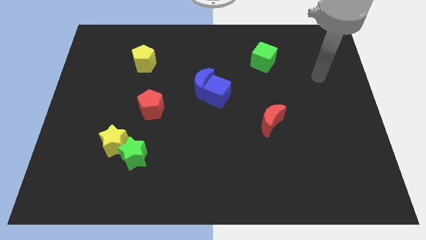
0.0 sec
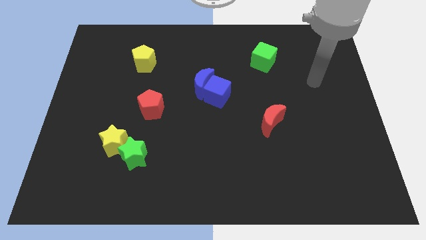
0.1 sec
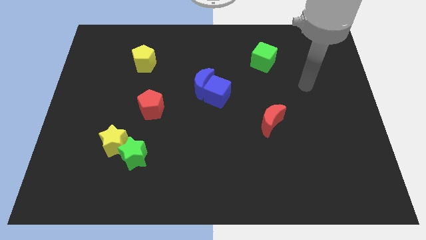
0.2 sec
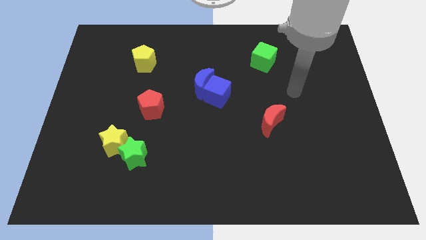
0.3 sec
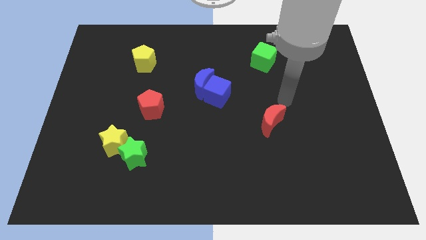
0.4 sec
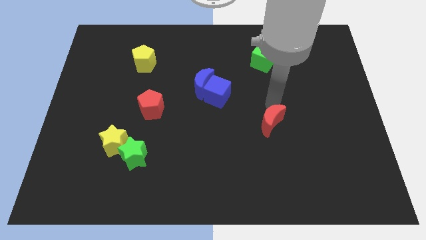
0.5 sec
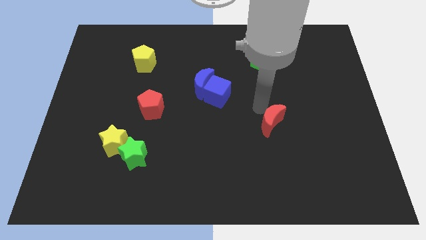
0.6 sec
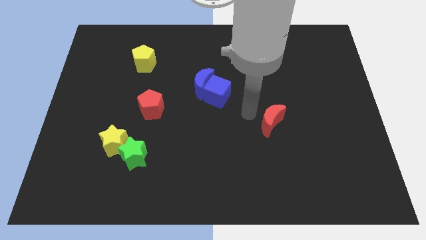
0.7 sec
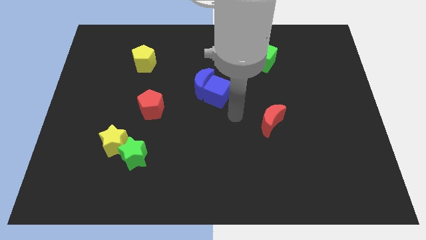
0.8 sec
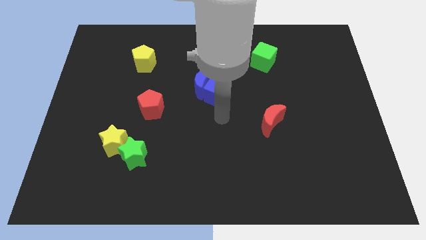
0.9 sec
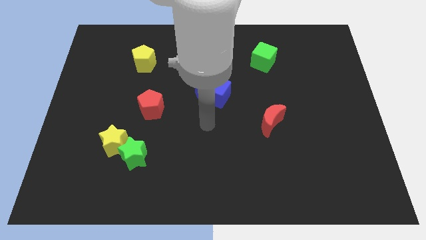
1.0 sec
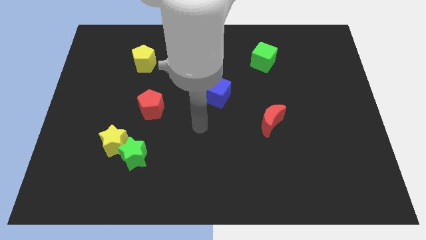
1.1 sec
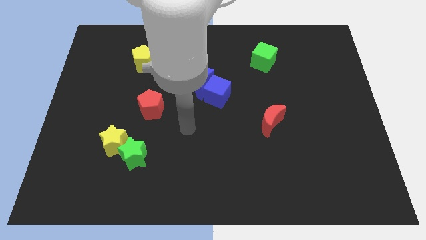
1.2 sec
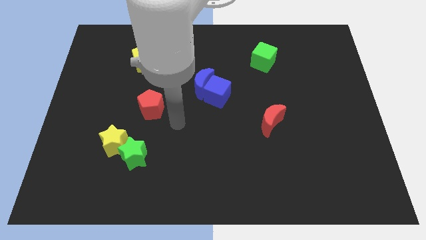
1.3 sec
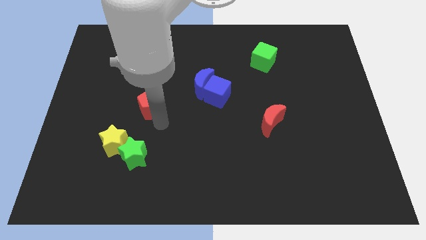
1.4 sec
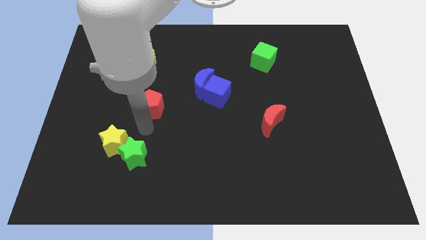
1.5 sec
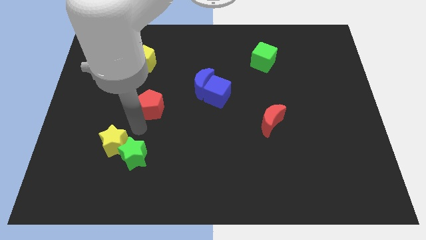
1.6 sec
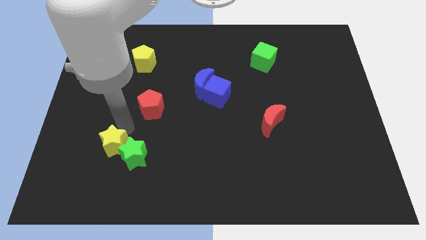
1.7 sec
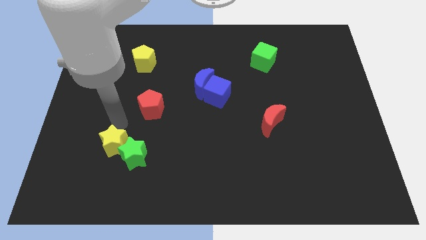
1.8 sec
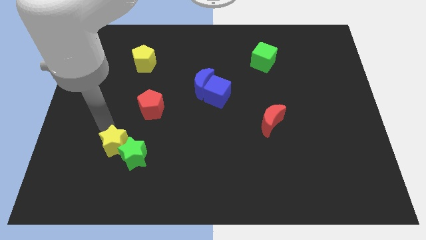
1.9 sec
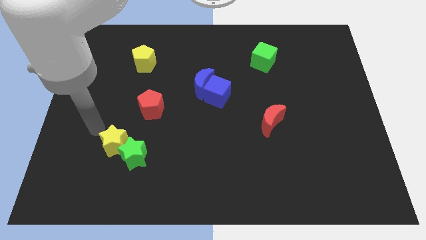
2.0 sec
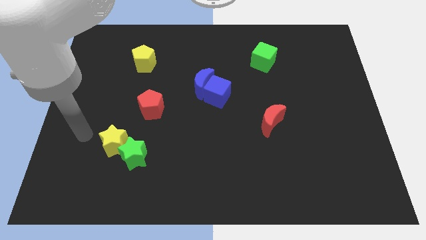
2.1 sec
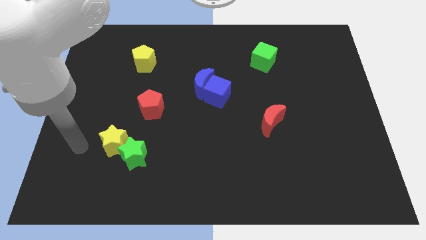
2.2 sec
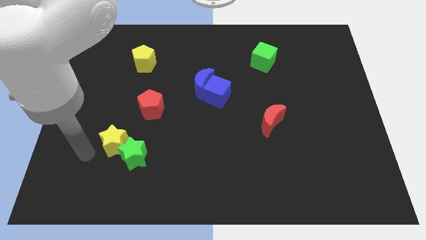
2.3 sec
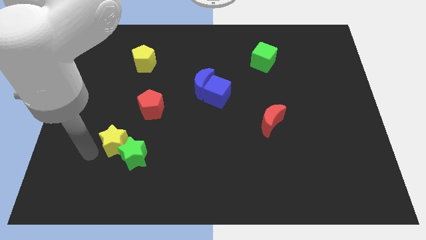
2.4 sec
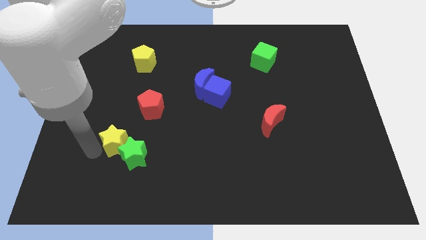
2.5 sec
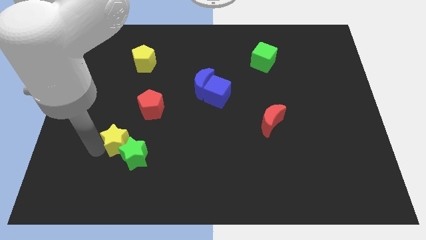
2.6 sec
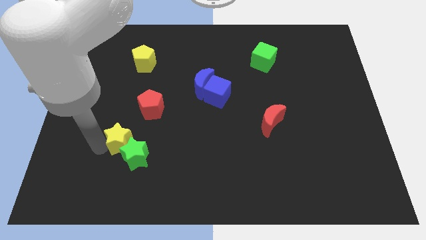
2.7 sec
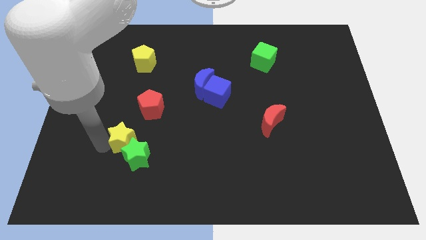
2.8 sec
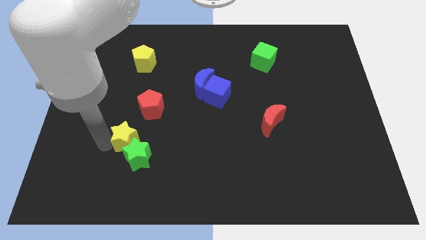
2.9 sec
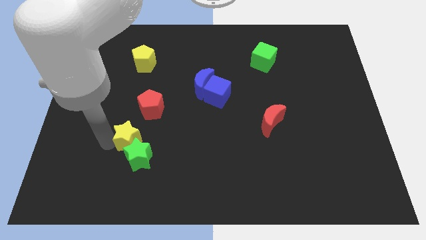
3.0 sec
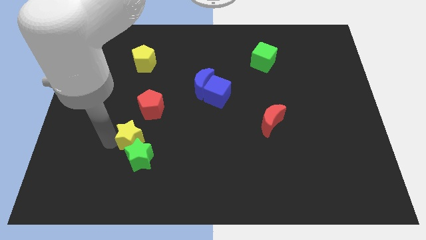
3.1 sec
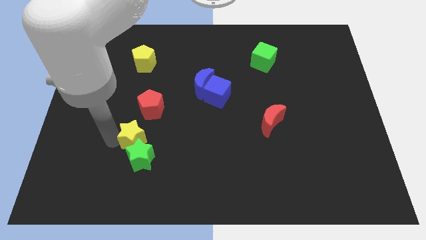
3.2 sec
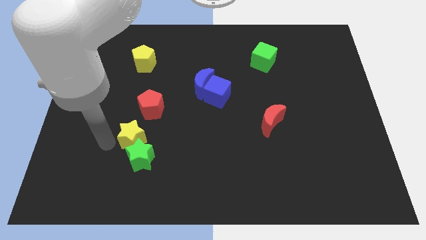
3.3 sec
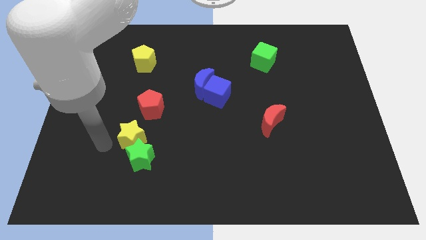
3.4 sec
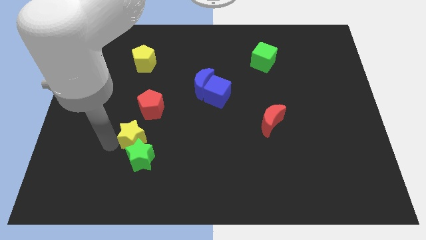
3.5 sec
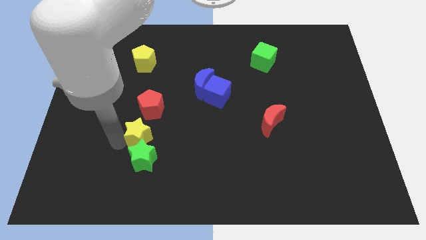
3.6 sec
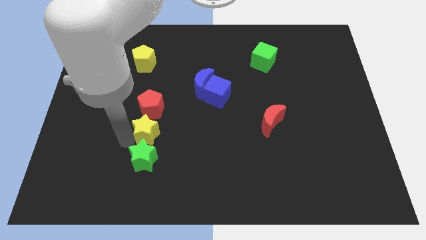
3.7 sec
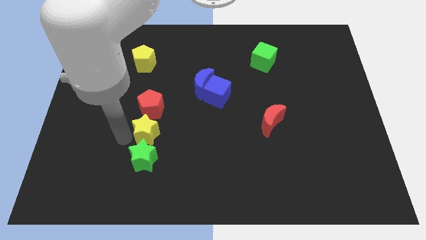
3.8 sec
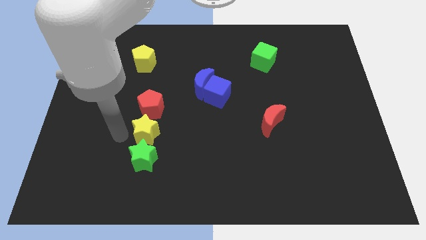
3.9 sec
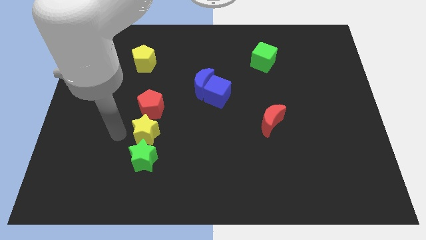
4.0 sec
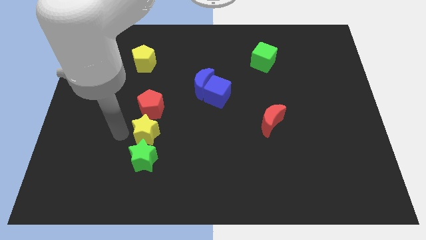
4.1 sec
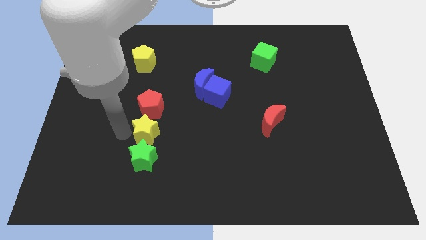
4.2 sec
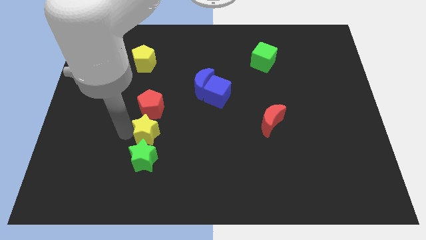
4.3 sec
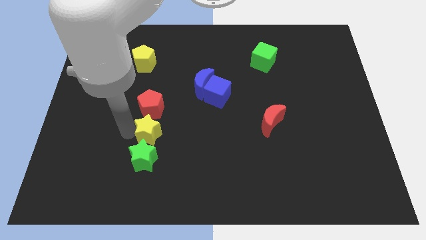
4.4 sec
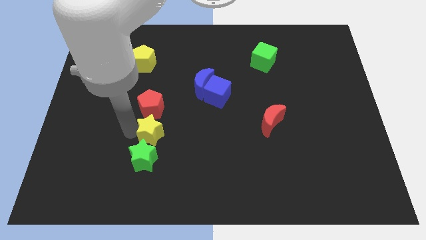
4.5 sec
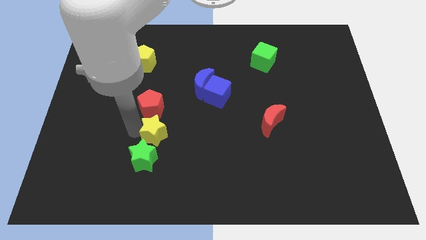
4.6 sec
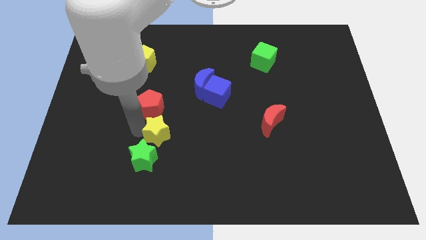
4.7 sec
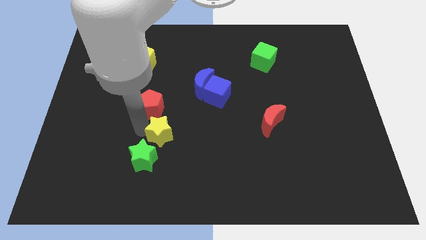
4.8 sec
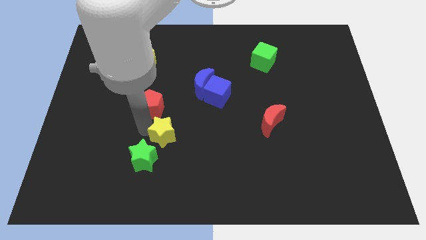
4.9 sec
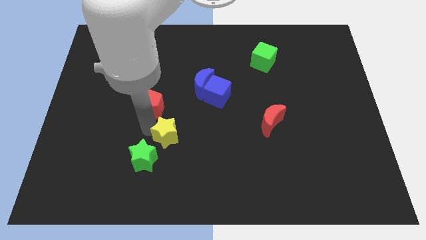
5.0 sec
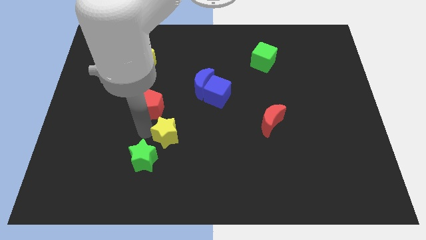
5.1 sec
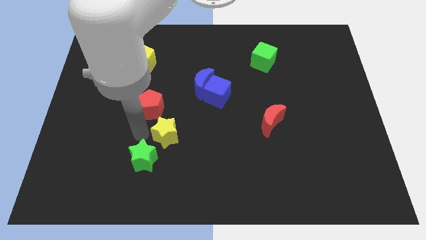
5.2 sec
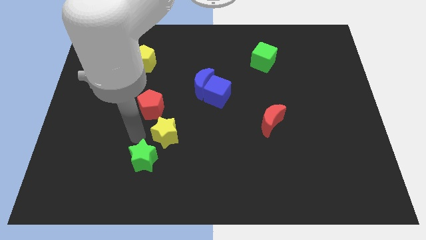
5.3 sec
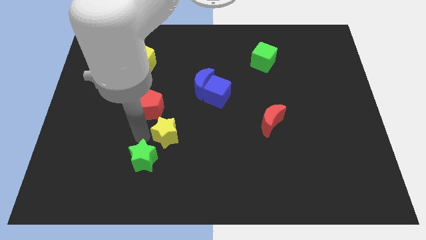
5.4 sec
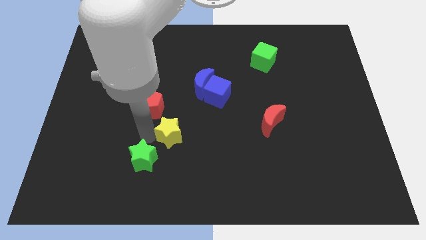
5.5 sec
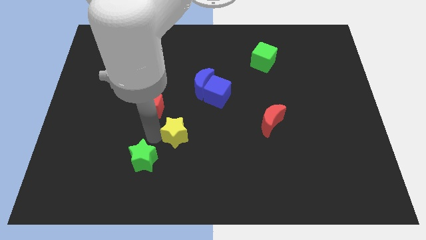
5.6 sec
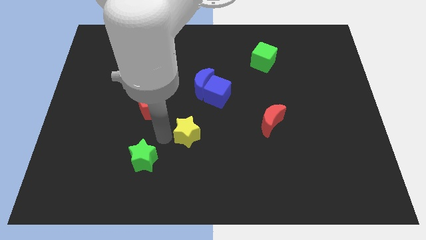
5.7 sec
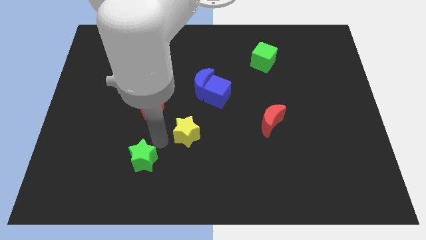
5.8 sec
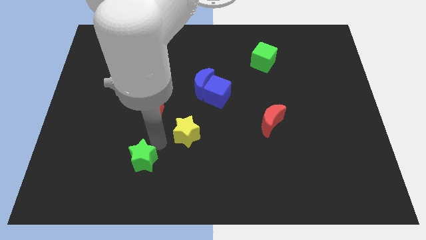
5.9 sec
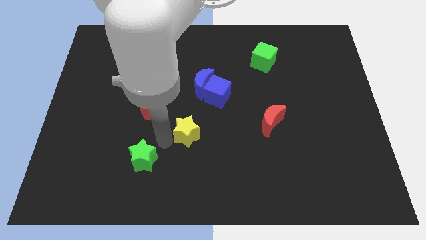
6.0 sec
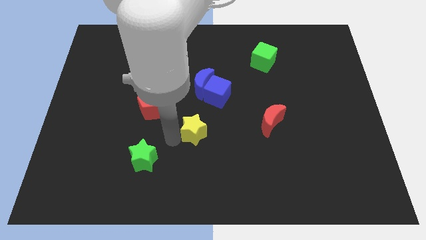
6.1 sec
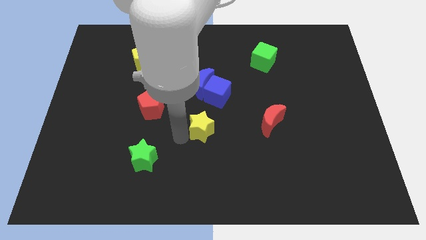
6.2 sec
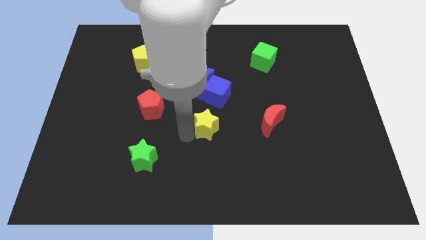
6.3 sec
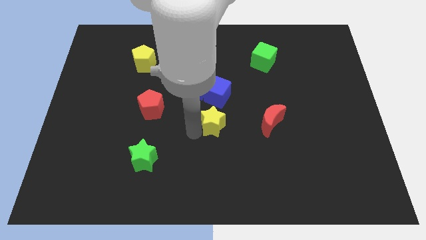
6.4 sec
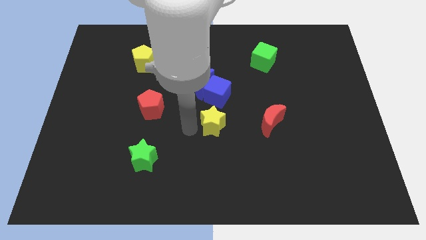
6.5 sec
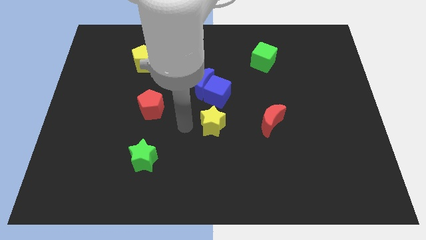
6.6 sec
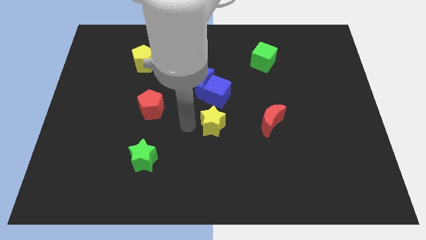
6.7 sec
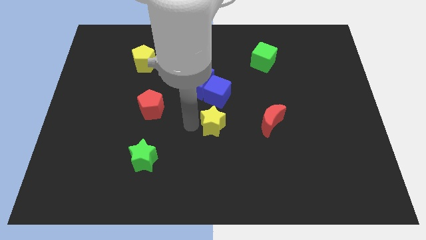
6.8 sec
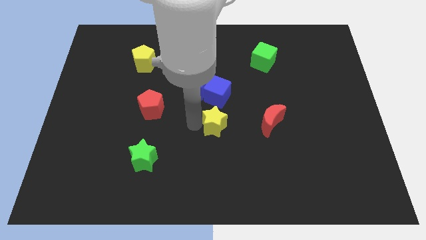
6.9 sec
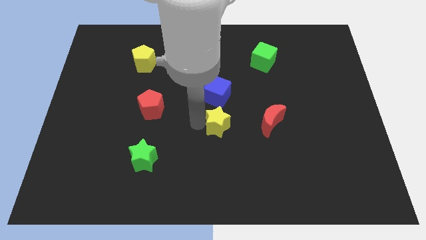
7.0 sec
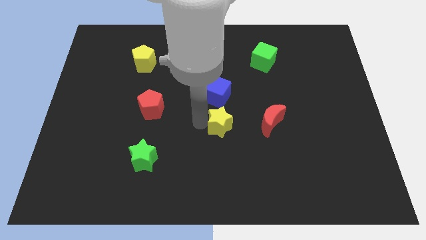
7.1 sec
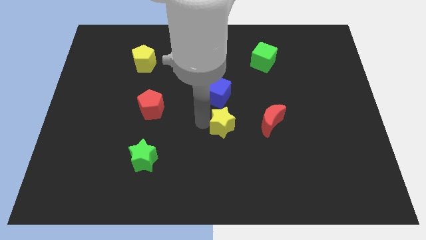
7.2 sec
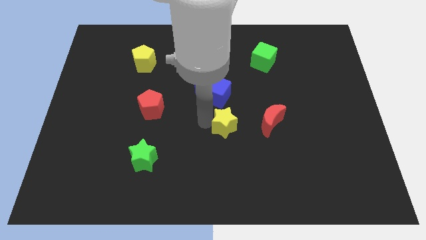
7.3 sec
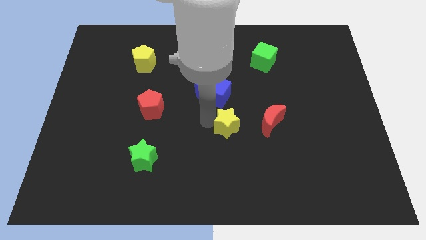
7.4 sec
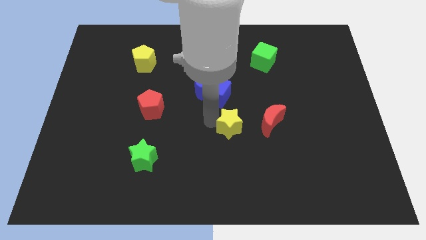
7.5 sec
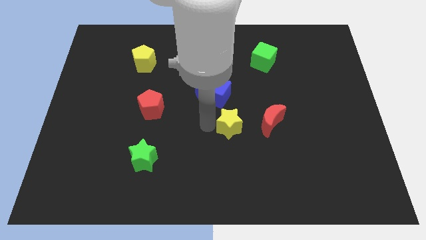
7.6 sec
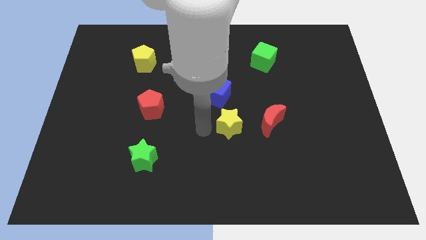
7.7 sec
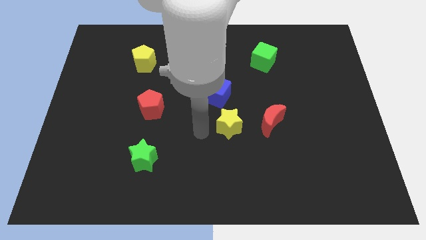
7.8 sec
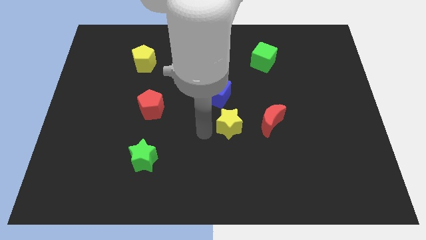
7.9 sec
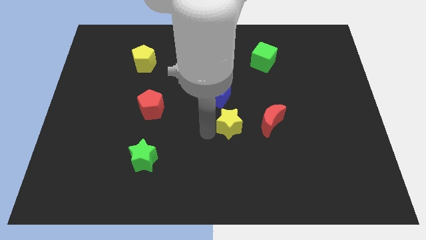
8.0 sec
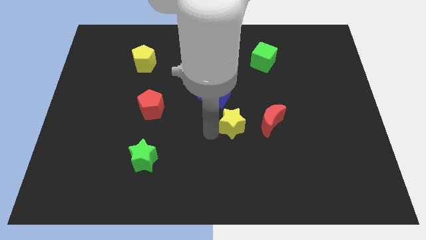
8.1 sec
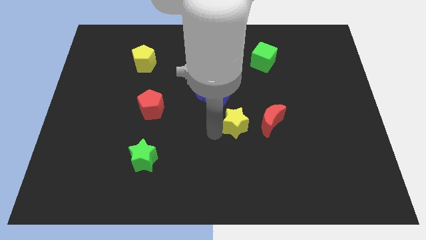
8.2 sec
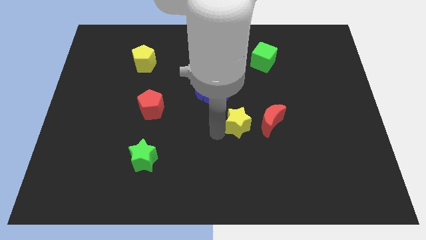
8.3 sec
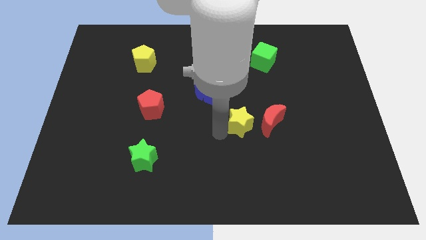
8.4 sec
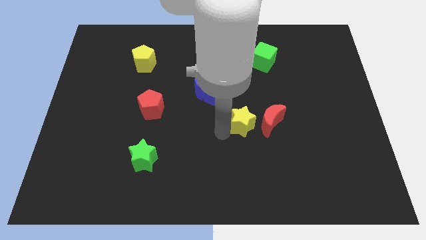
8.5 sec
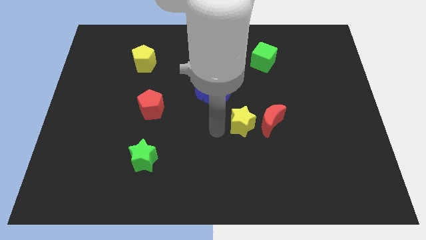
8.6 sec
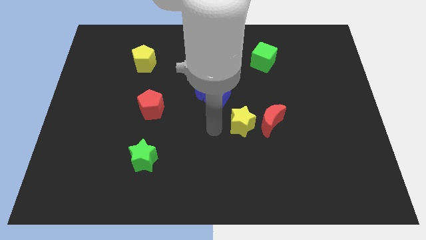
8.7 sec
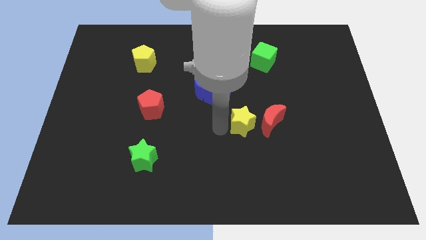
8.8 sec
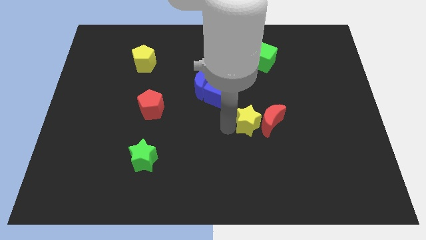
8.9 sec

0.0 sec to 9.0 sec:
put the yellow star next to the red moon
